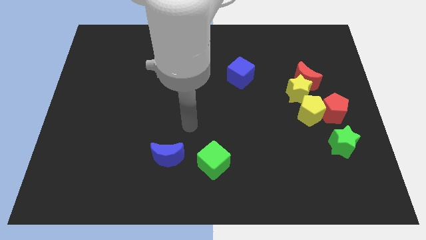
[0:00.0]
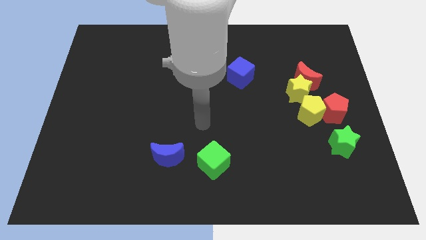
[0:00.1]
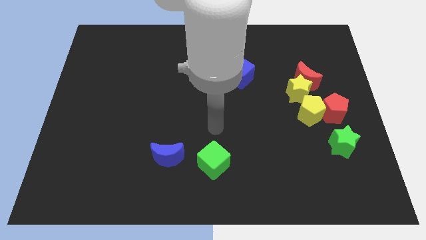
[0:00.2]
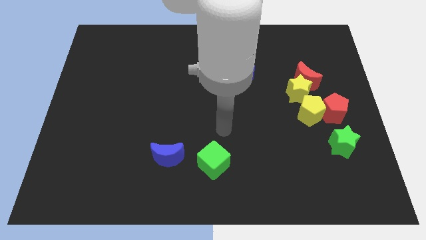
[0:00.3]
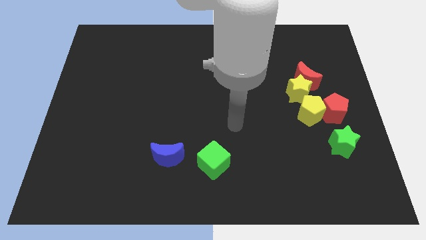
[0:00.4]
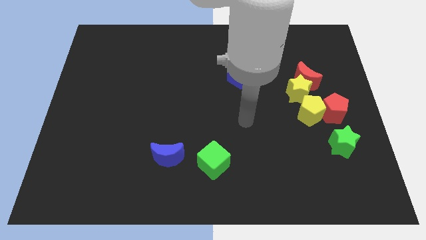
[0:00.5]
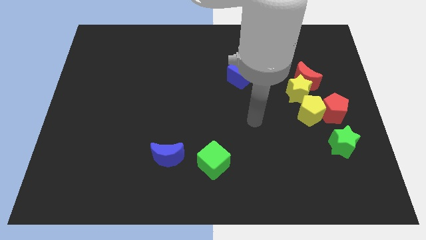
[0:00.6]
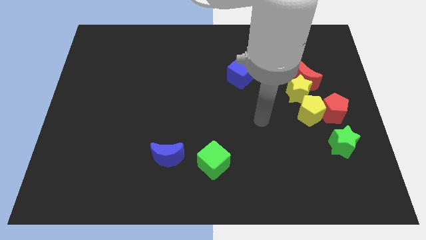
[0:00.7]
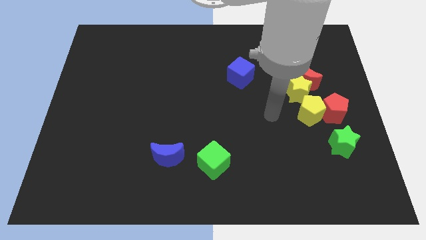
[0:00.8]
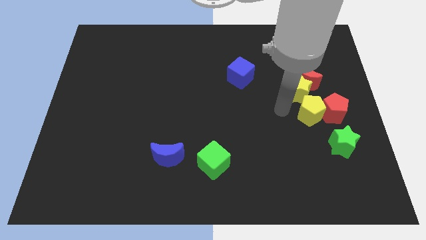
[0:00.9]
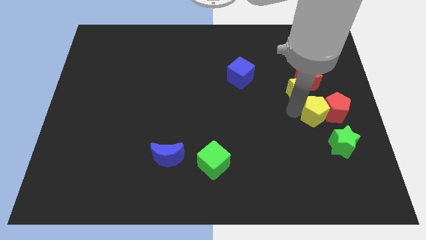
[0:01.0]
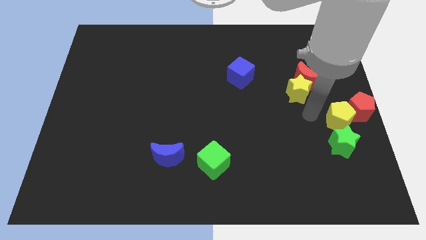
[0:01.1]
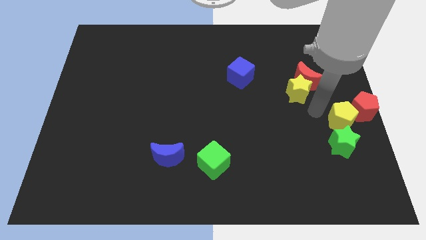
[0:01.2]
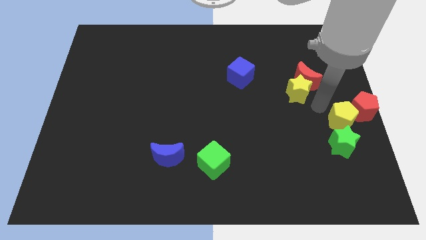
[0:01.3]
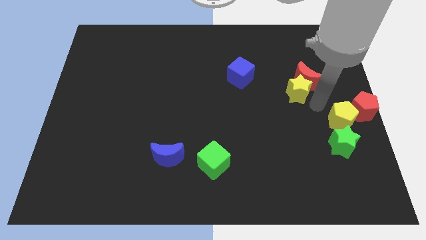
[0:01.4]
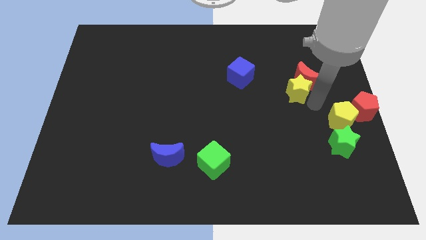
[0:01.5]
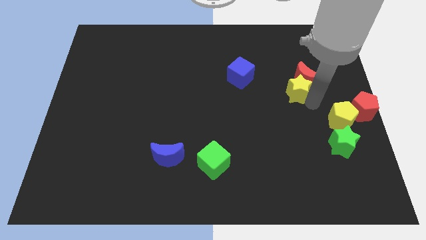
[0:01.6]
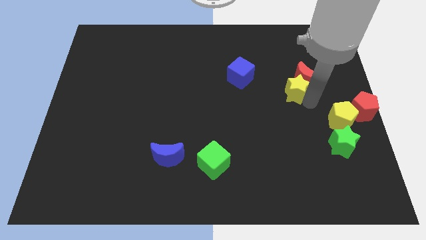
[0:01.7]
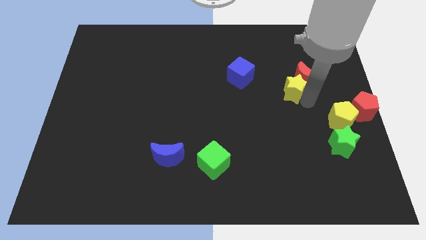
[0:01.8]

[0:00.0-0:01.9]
separate the yellow star from the clump

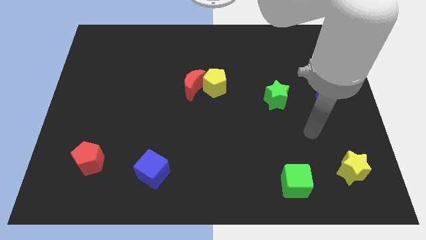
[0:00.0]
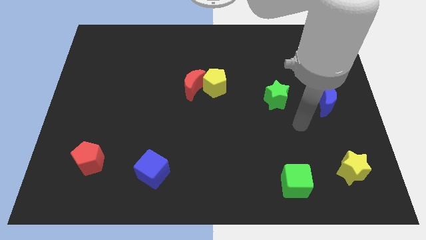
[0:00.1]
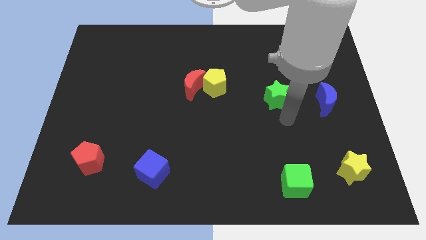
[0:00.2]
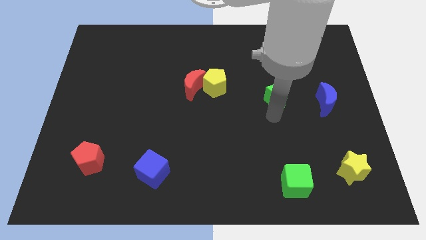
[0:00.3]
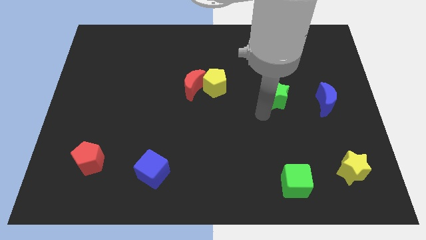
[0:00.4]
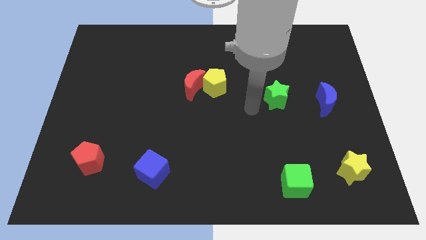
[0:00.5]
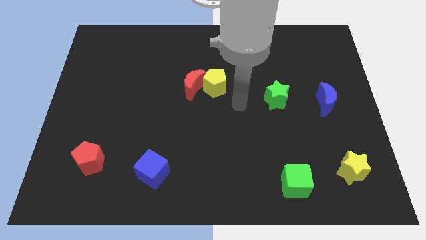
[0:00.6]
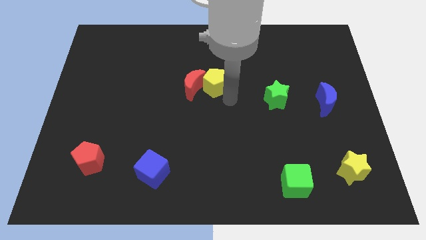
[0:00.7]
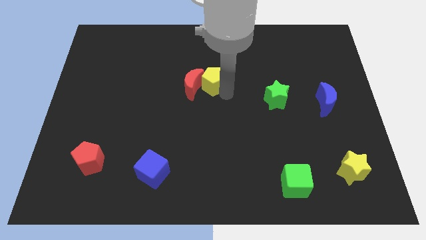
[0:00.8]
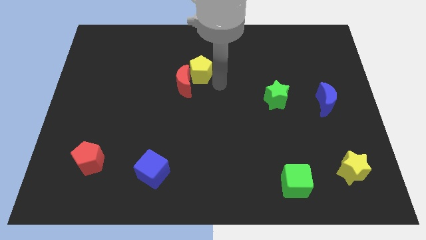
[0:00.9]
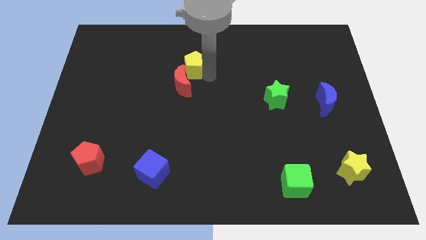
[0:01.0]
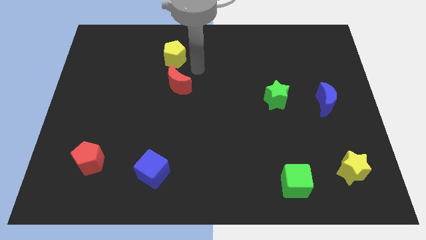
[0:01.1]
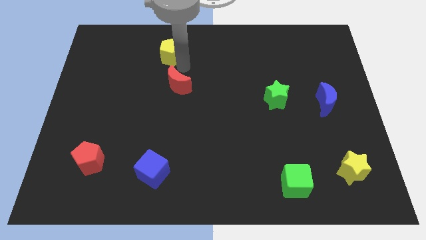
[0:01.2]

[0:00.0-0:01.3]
move the red moon away from the yellow pentagon

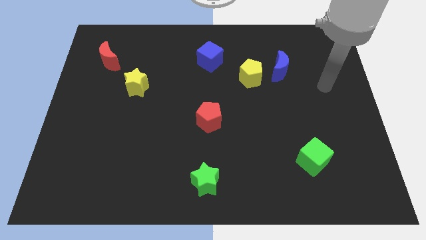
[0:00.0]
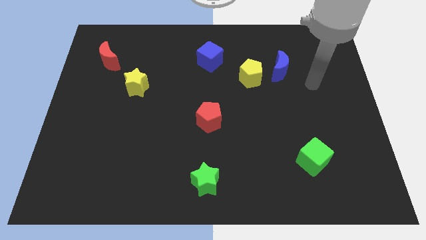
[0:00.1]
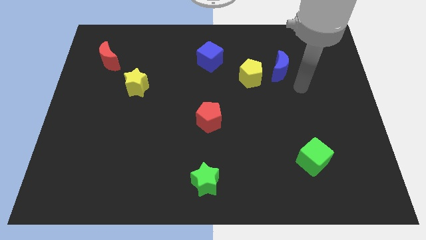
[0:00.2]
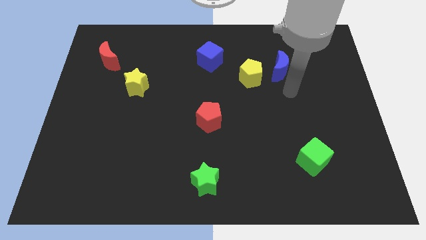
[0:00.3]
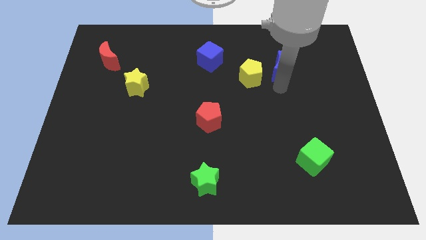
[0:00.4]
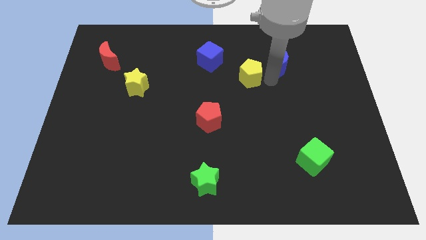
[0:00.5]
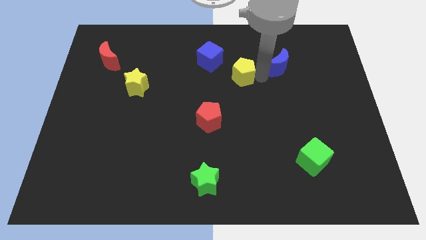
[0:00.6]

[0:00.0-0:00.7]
move the blue moon away from the yellow pentagon

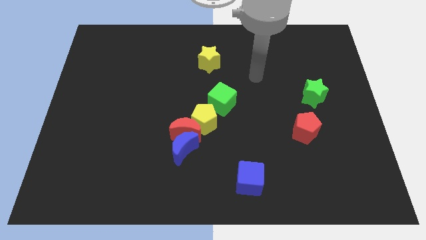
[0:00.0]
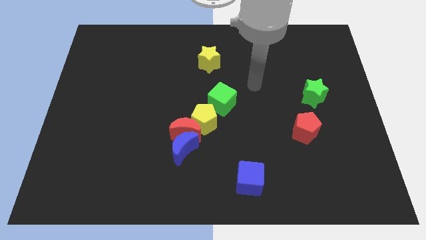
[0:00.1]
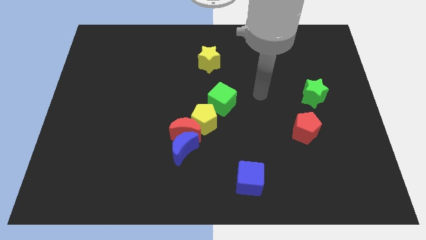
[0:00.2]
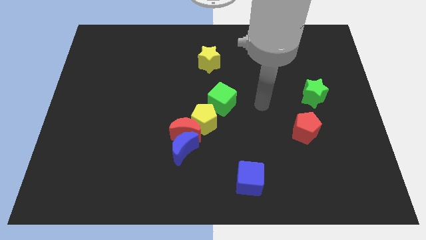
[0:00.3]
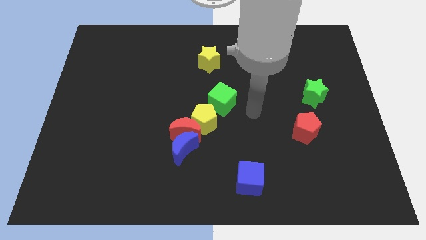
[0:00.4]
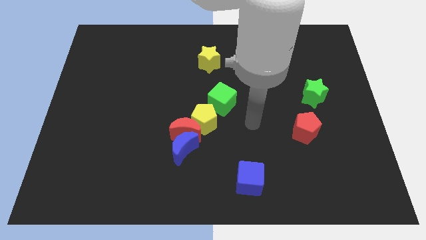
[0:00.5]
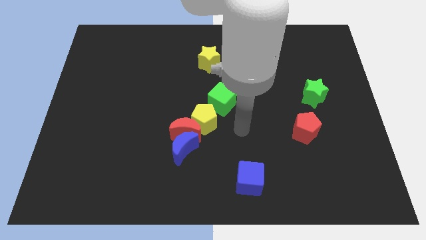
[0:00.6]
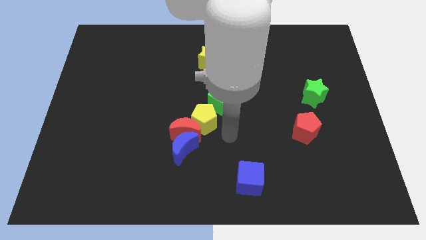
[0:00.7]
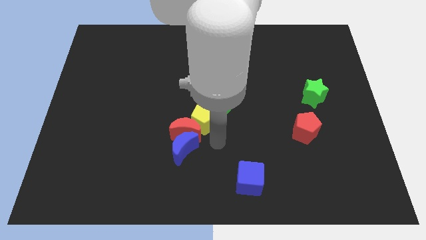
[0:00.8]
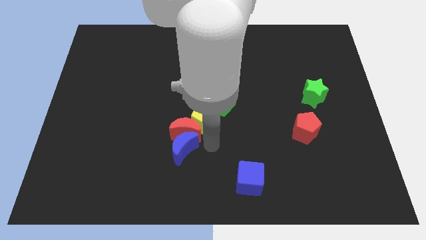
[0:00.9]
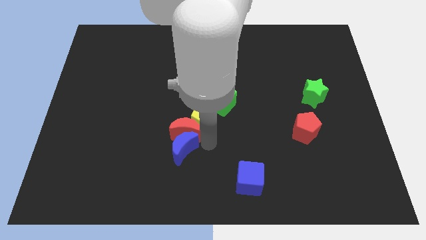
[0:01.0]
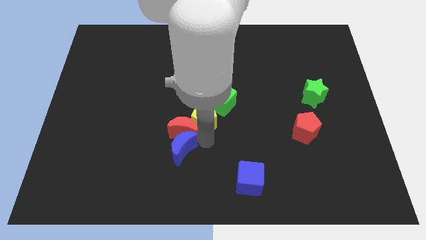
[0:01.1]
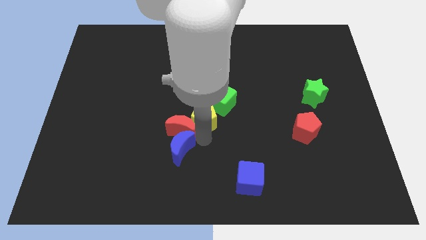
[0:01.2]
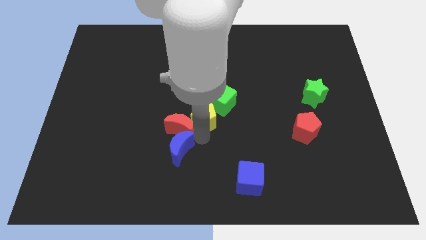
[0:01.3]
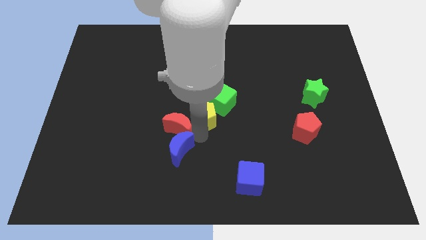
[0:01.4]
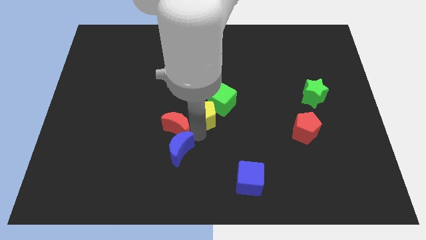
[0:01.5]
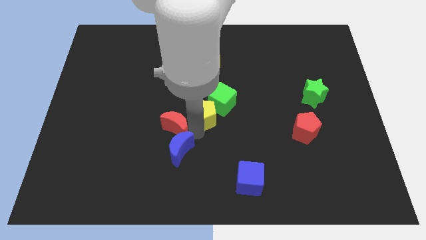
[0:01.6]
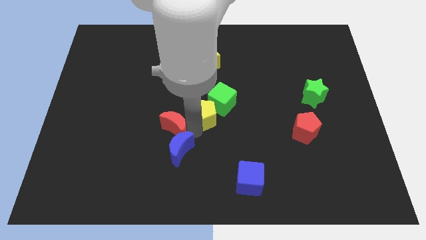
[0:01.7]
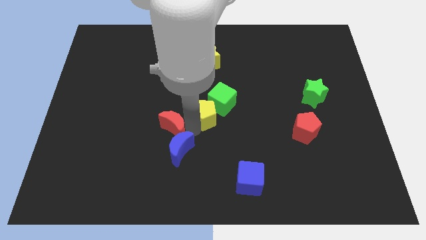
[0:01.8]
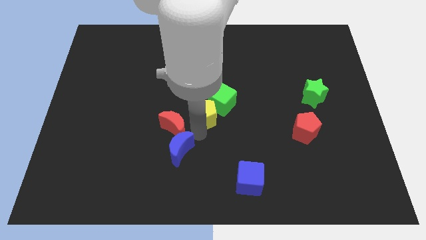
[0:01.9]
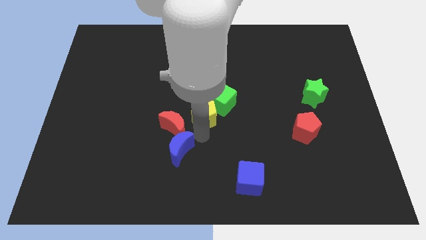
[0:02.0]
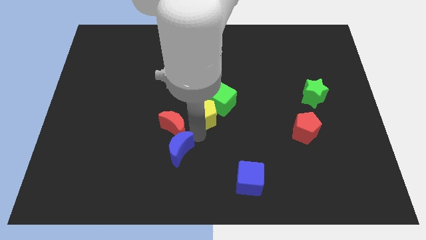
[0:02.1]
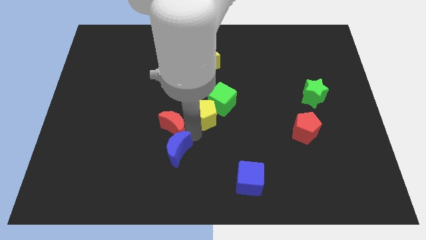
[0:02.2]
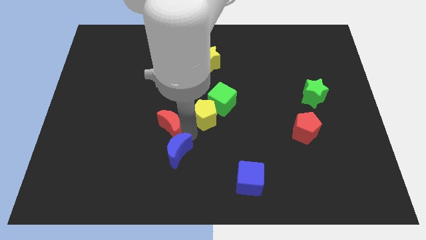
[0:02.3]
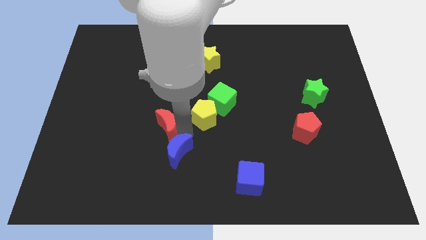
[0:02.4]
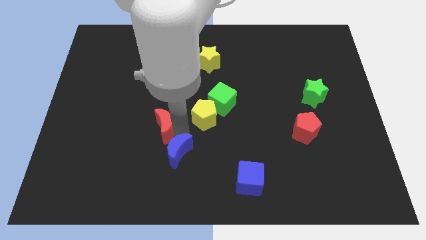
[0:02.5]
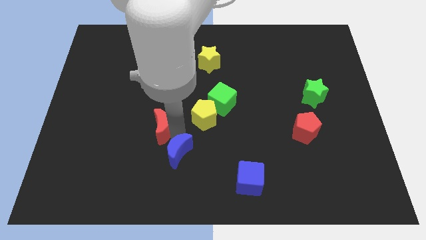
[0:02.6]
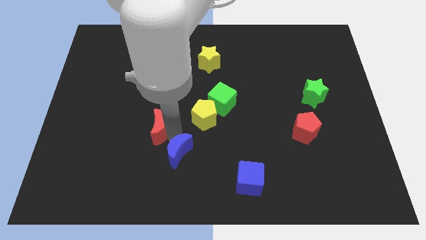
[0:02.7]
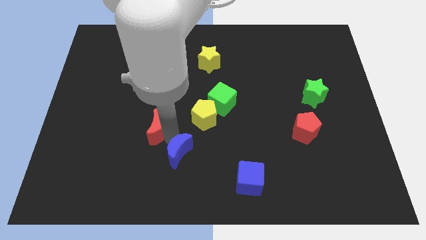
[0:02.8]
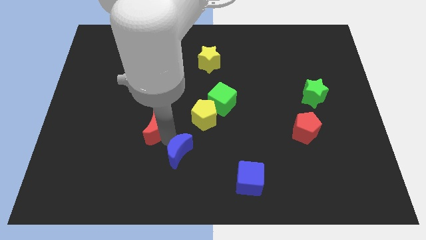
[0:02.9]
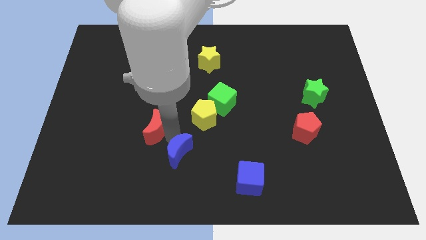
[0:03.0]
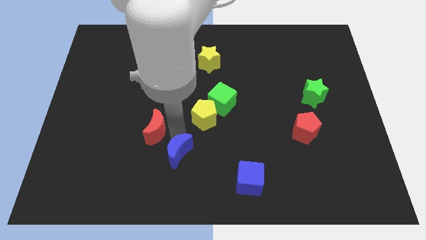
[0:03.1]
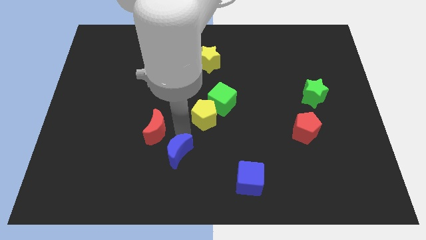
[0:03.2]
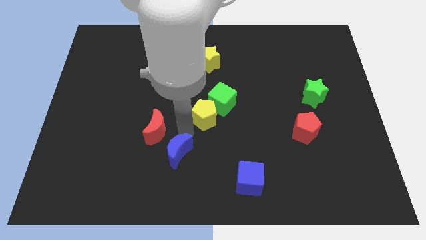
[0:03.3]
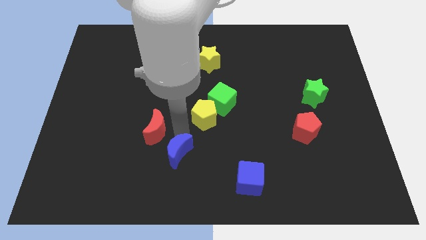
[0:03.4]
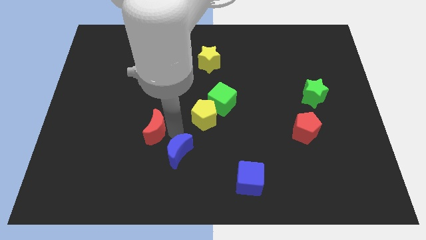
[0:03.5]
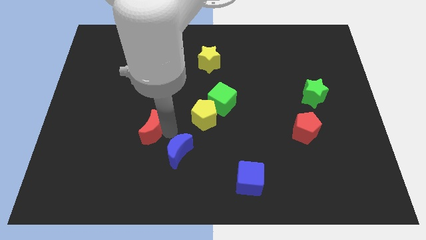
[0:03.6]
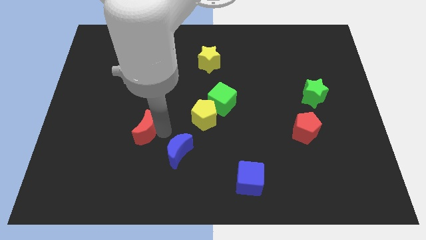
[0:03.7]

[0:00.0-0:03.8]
move the red moon away from the blue moon and yellow pentagon

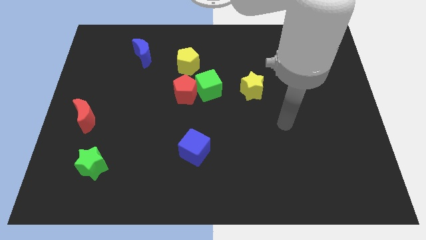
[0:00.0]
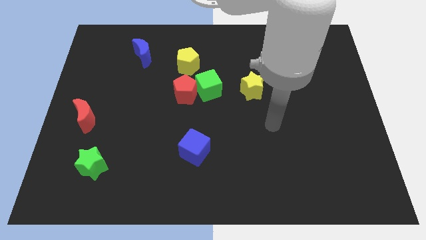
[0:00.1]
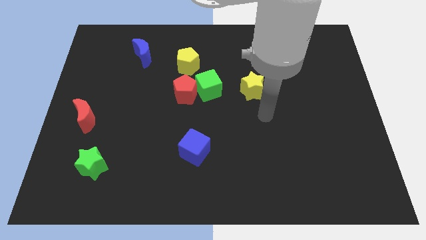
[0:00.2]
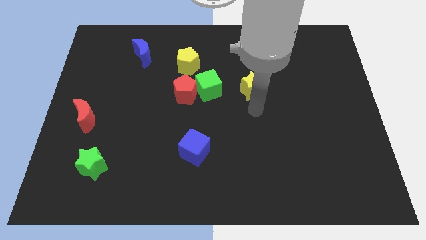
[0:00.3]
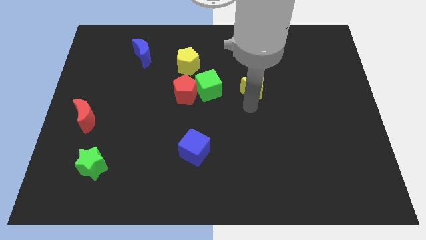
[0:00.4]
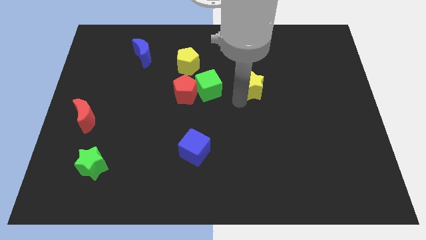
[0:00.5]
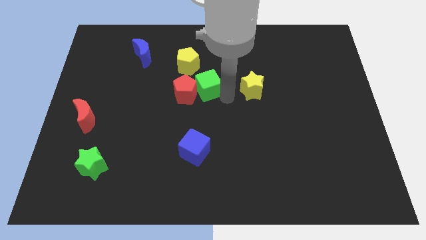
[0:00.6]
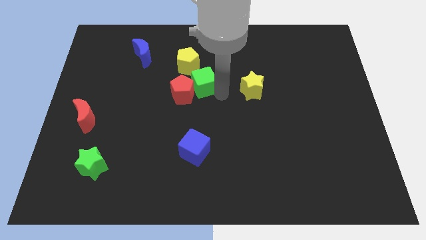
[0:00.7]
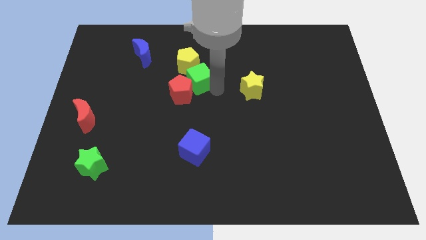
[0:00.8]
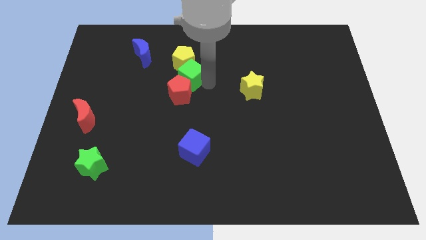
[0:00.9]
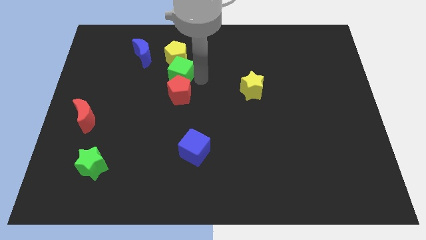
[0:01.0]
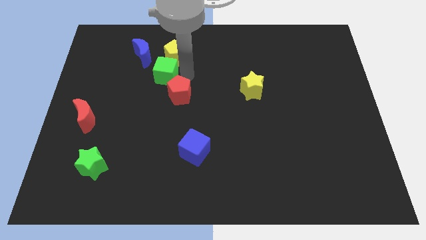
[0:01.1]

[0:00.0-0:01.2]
separate the red pentagon from the green cube and yellow pentagon

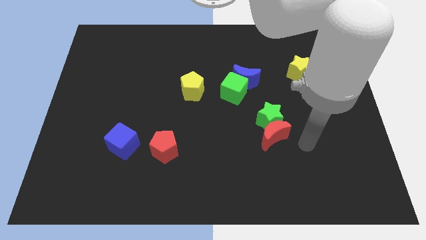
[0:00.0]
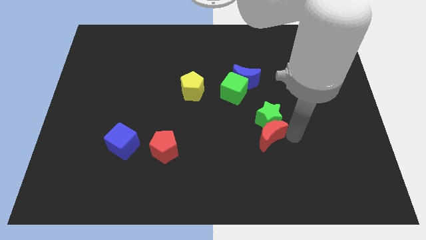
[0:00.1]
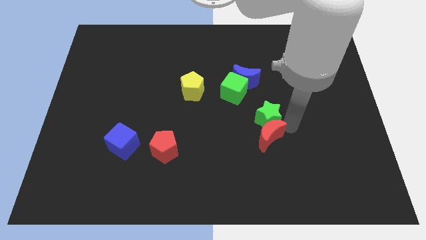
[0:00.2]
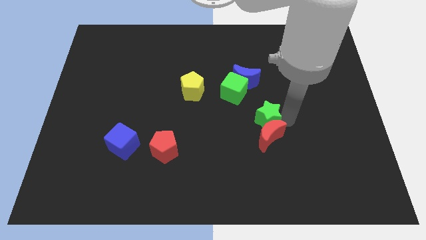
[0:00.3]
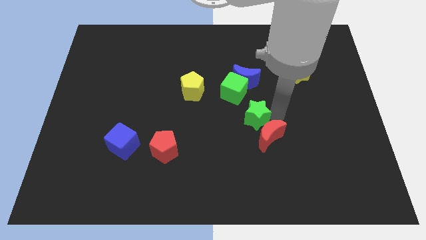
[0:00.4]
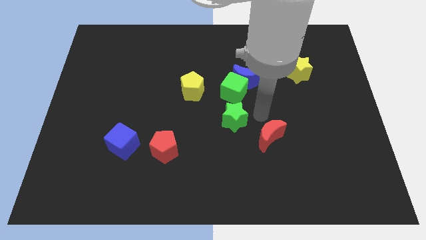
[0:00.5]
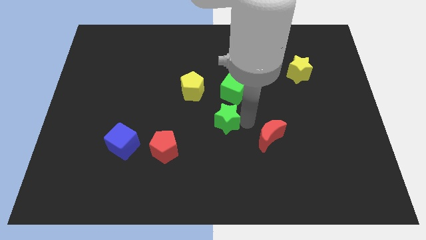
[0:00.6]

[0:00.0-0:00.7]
pull the red moon apart from the green star
